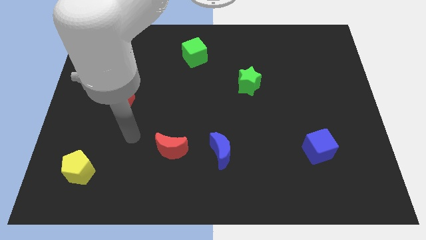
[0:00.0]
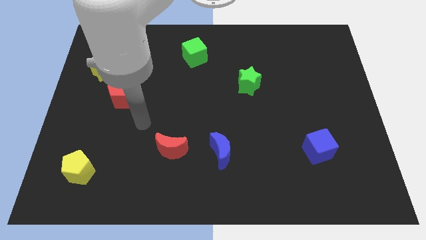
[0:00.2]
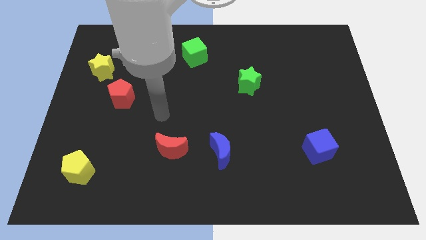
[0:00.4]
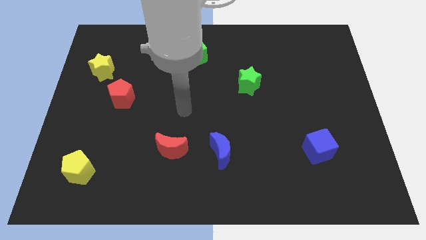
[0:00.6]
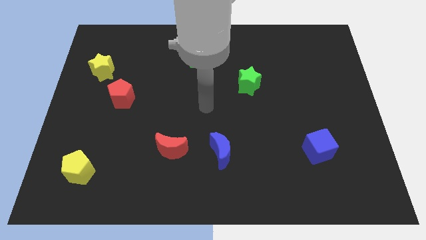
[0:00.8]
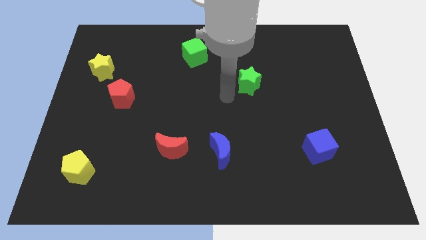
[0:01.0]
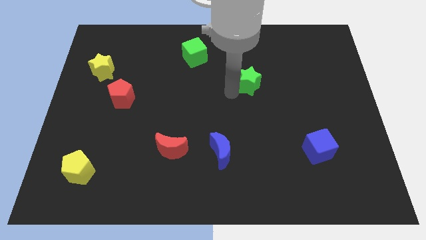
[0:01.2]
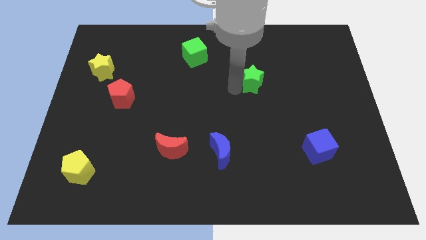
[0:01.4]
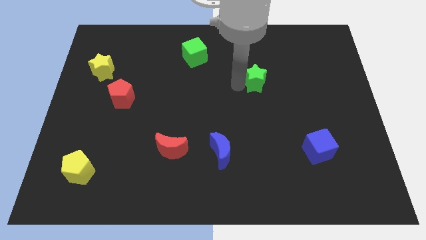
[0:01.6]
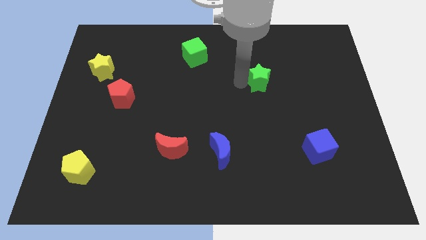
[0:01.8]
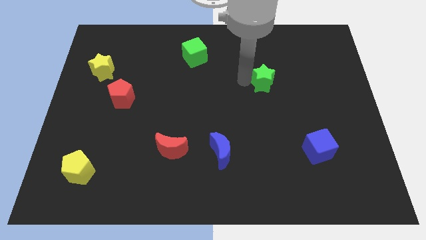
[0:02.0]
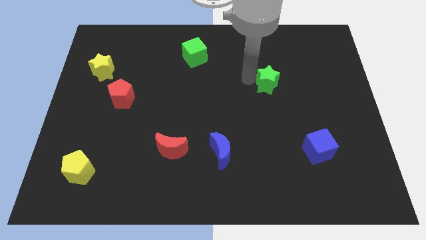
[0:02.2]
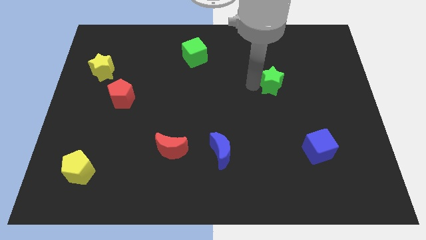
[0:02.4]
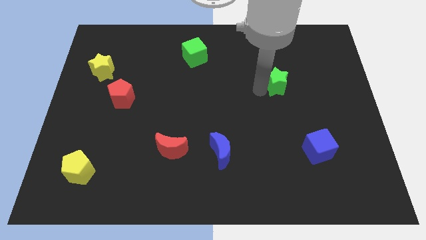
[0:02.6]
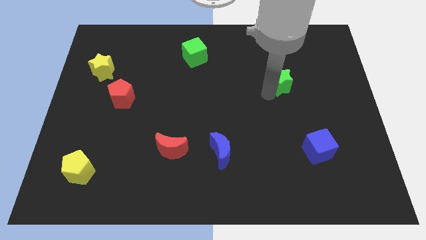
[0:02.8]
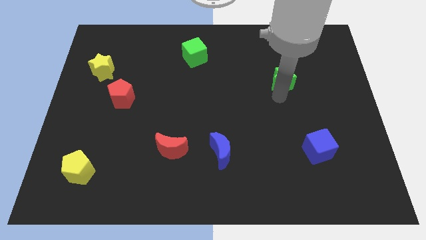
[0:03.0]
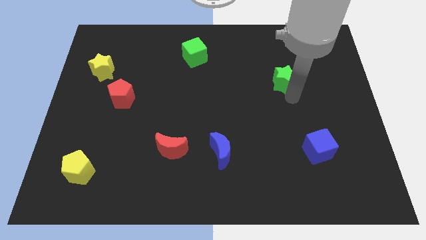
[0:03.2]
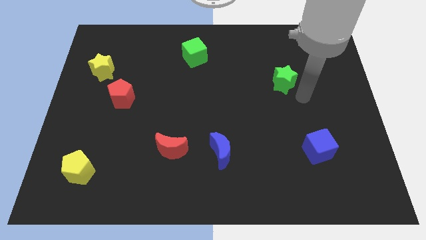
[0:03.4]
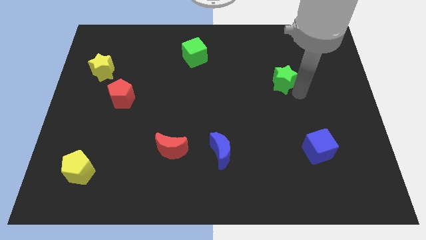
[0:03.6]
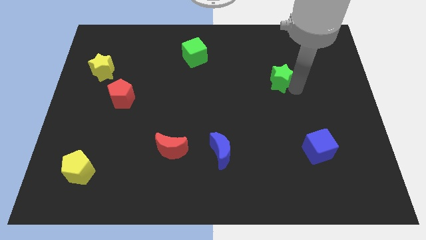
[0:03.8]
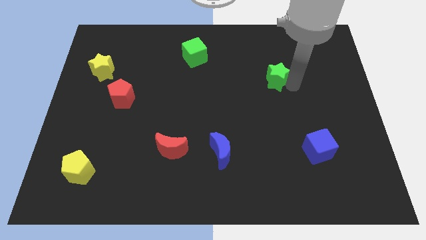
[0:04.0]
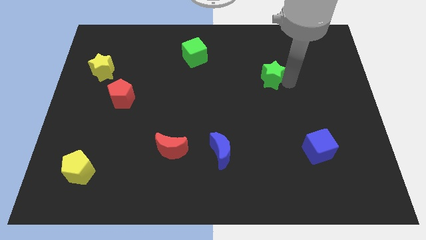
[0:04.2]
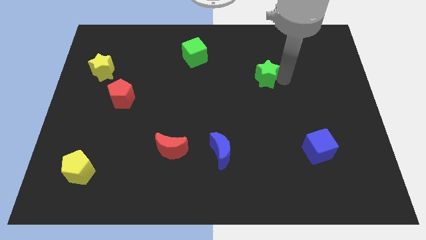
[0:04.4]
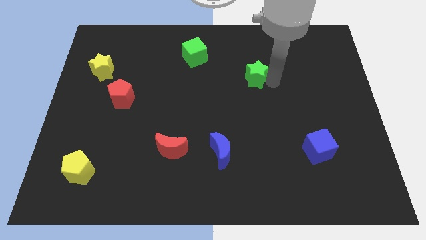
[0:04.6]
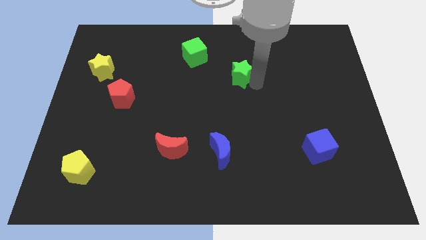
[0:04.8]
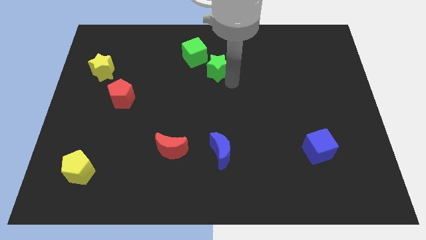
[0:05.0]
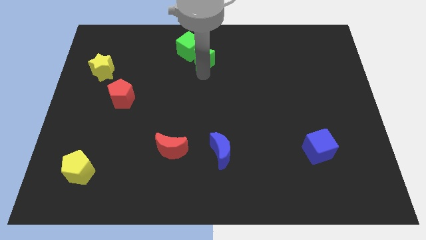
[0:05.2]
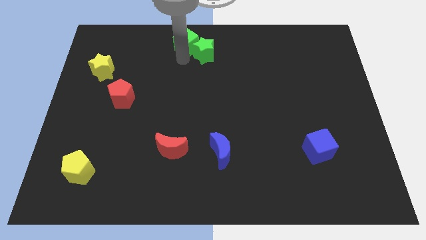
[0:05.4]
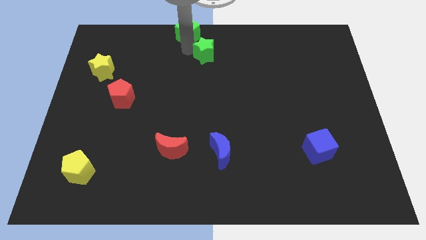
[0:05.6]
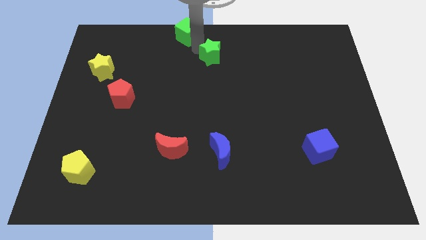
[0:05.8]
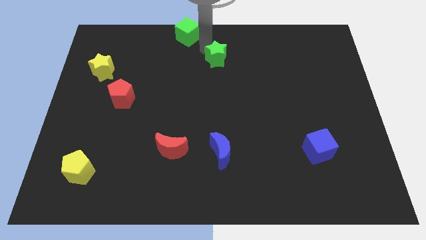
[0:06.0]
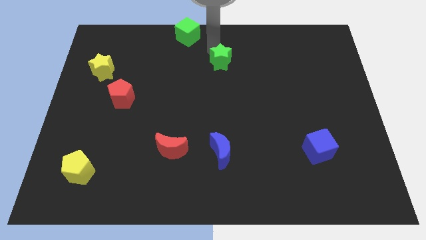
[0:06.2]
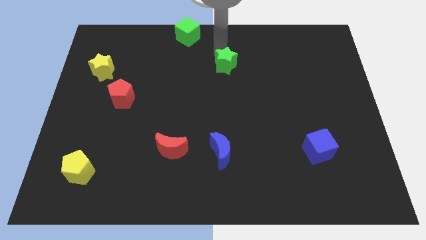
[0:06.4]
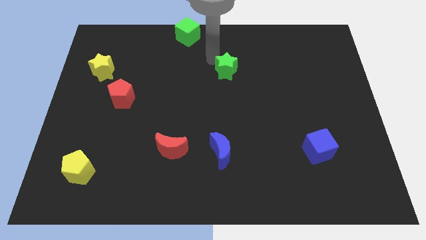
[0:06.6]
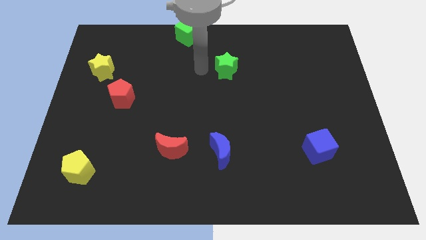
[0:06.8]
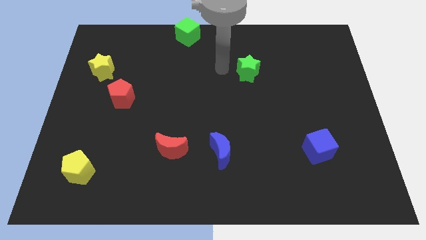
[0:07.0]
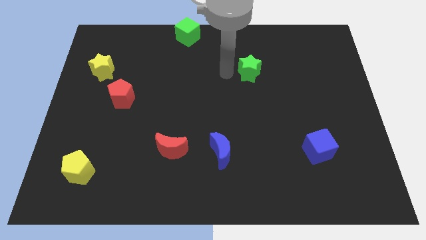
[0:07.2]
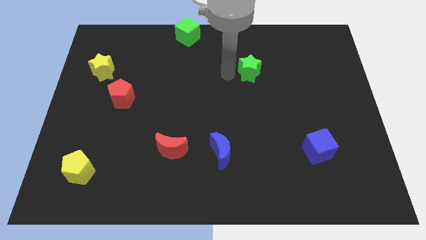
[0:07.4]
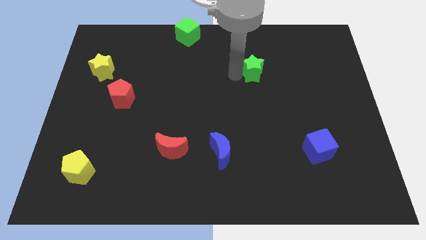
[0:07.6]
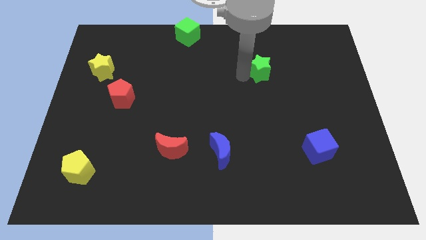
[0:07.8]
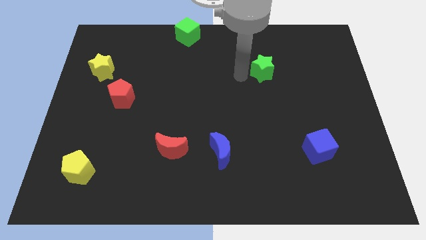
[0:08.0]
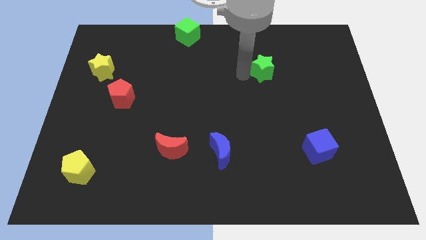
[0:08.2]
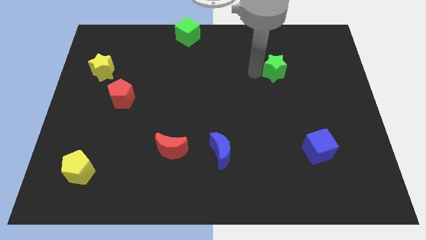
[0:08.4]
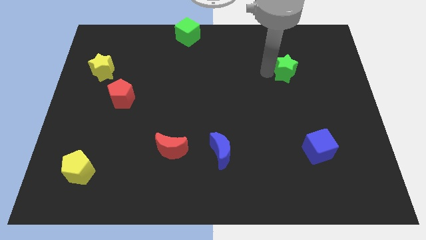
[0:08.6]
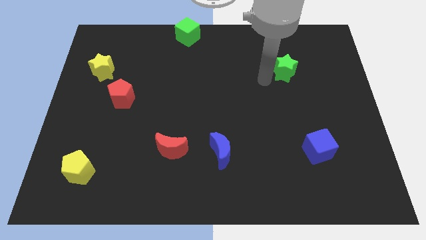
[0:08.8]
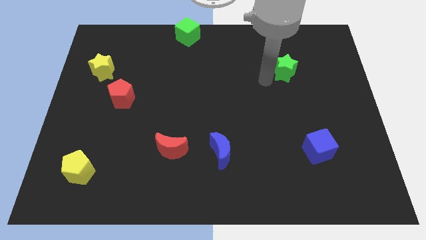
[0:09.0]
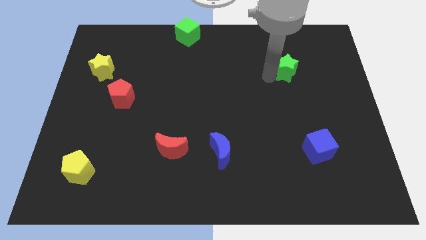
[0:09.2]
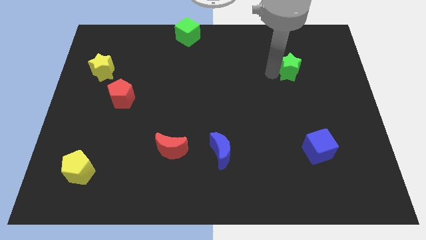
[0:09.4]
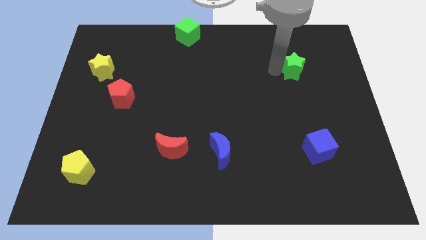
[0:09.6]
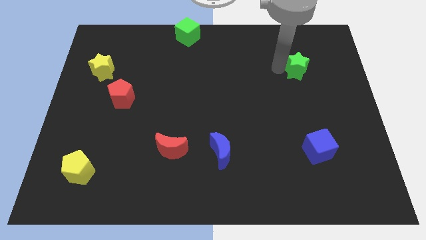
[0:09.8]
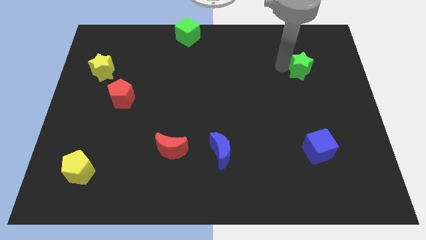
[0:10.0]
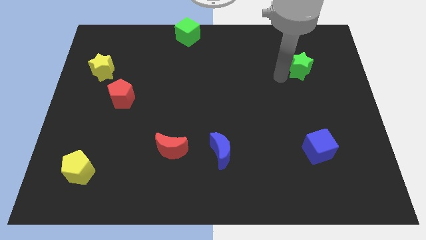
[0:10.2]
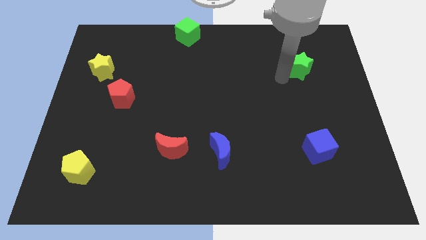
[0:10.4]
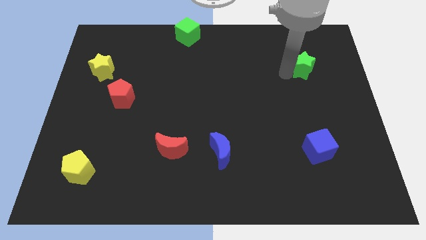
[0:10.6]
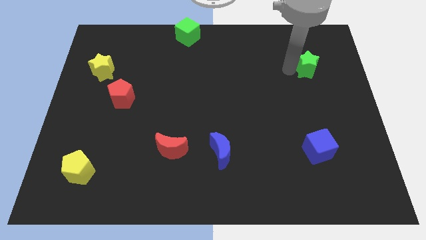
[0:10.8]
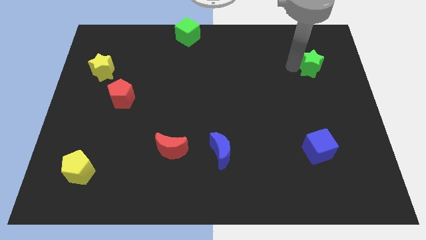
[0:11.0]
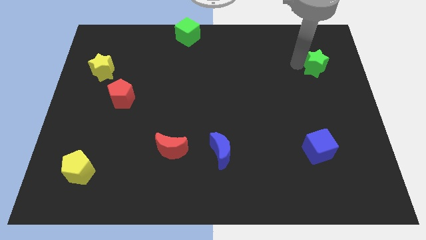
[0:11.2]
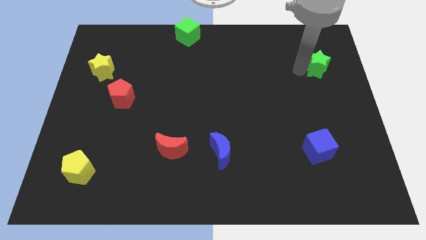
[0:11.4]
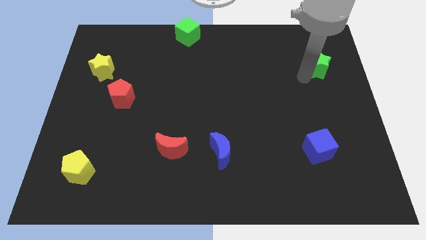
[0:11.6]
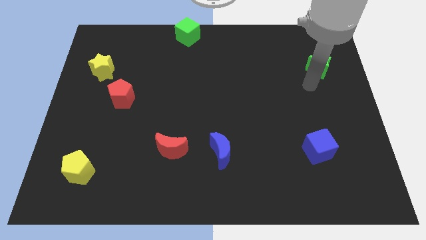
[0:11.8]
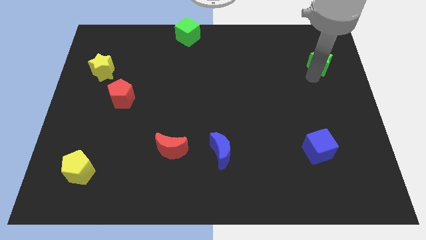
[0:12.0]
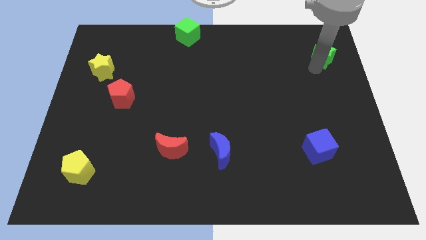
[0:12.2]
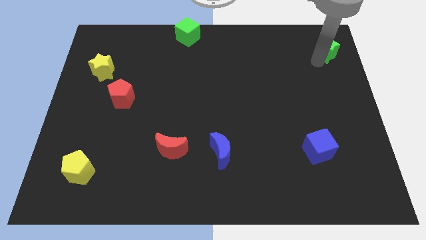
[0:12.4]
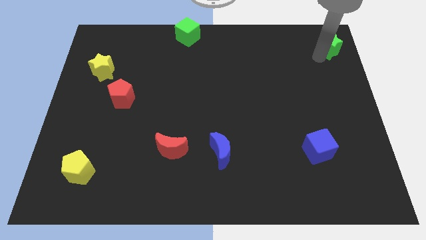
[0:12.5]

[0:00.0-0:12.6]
move the green star to the upper right corner
